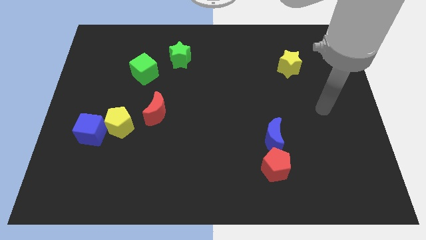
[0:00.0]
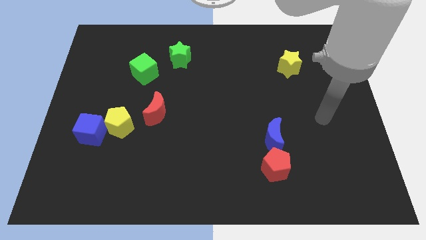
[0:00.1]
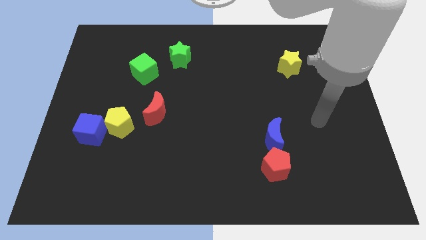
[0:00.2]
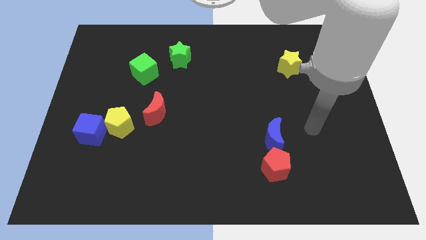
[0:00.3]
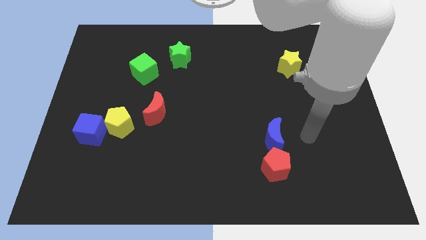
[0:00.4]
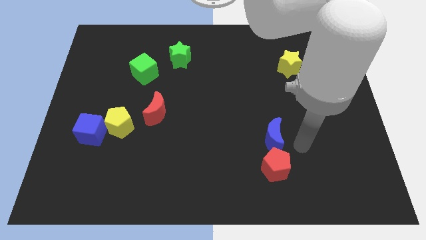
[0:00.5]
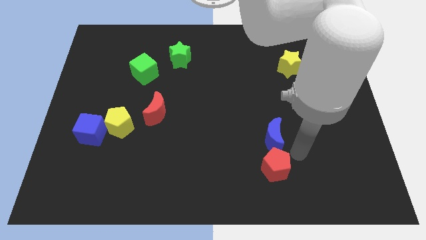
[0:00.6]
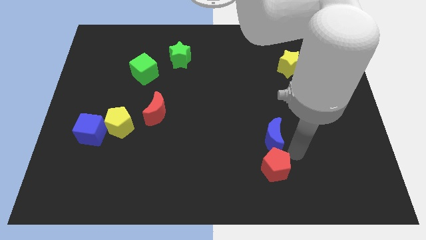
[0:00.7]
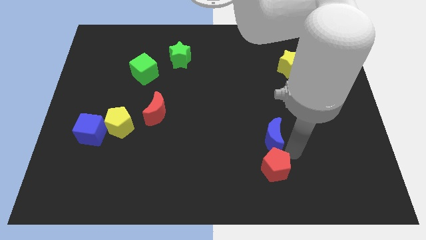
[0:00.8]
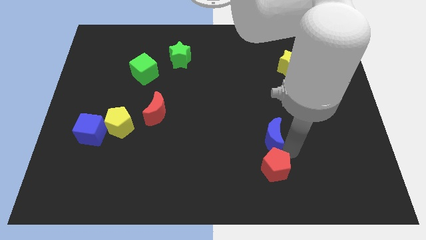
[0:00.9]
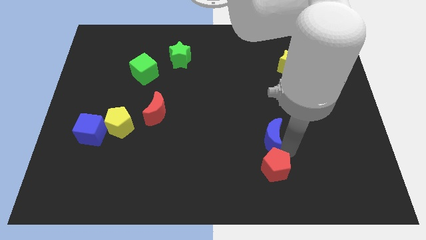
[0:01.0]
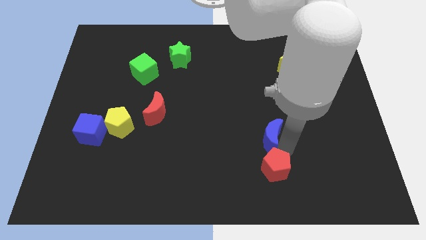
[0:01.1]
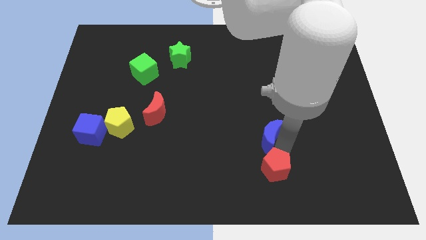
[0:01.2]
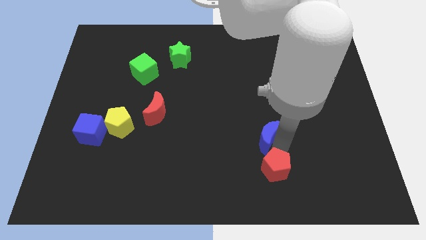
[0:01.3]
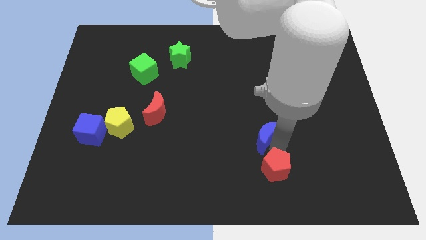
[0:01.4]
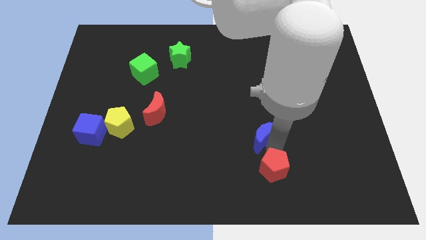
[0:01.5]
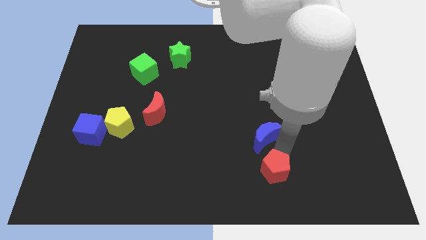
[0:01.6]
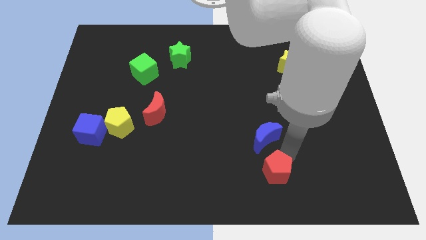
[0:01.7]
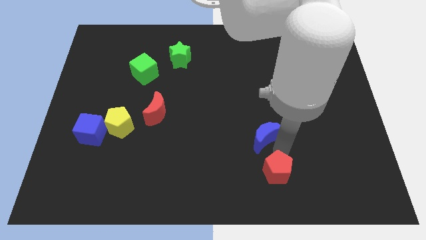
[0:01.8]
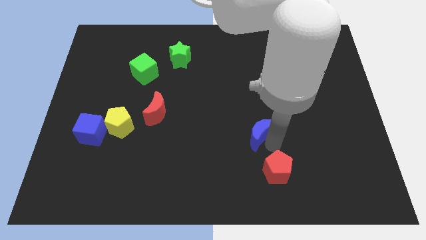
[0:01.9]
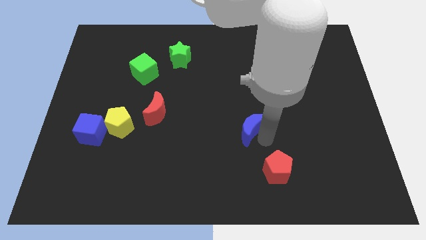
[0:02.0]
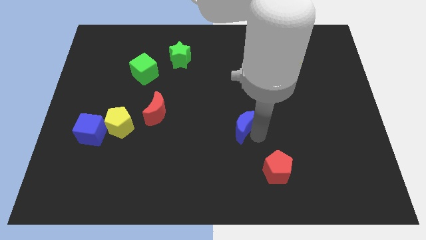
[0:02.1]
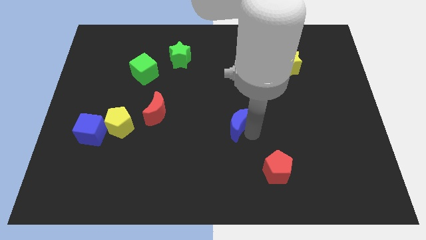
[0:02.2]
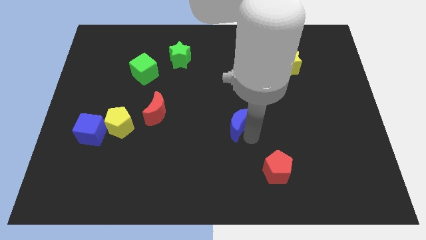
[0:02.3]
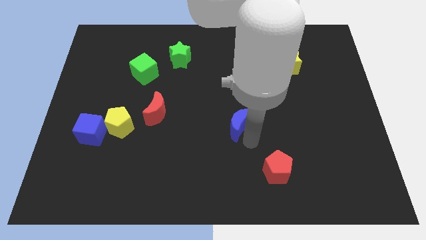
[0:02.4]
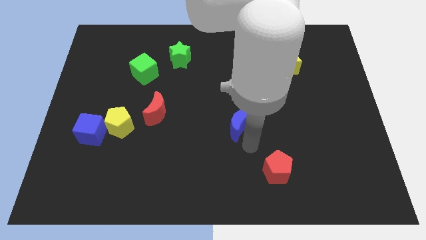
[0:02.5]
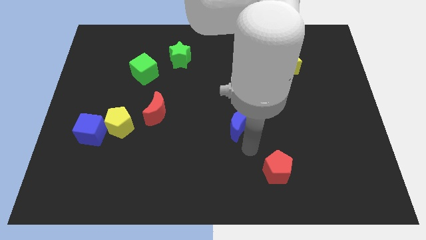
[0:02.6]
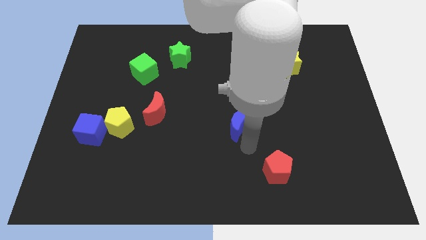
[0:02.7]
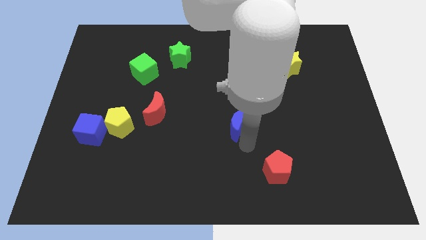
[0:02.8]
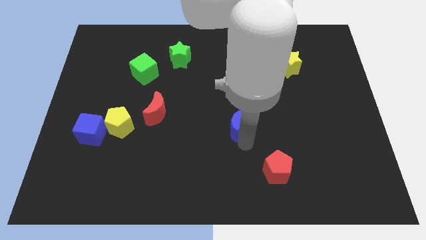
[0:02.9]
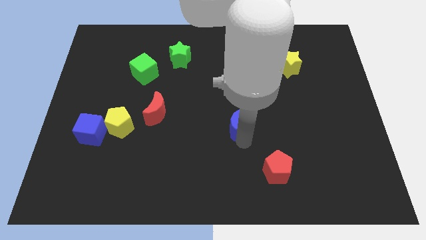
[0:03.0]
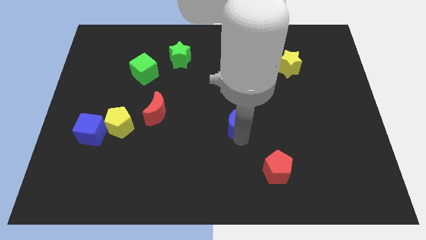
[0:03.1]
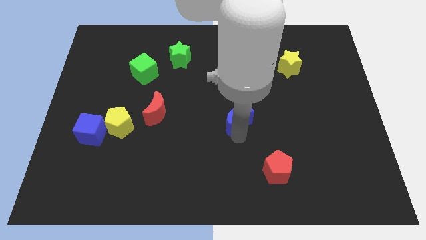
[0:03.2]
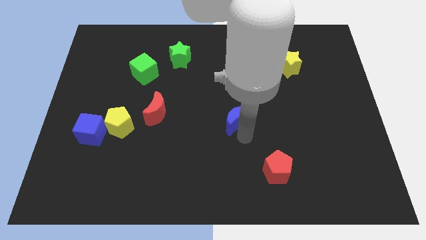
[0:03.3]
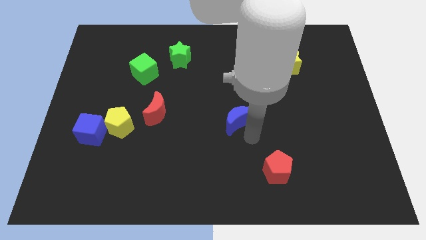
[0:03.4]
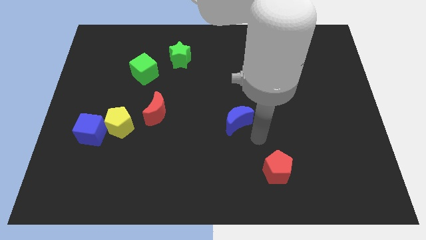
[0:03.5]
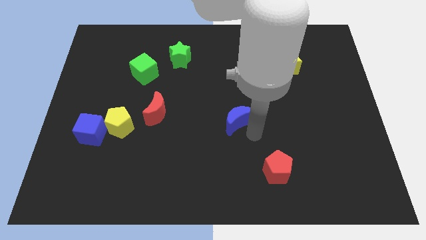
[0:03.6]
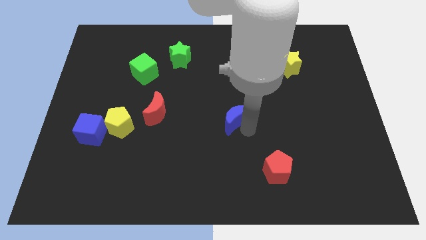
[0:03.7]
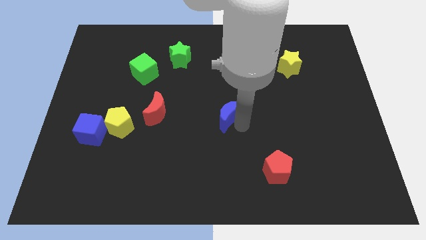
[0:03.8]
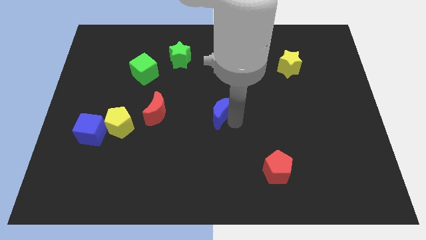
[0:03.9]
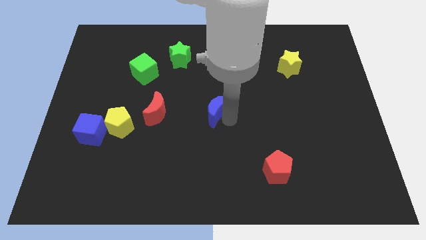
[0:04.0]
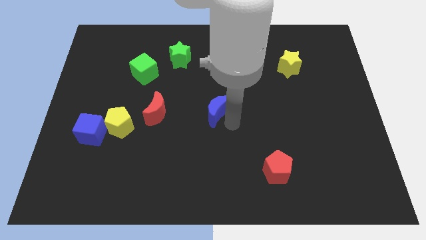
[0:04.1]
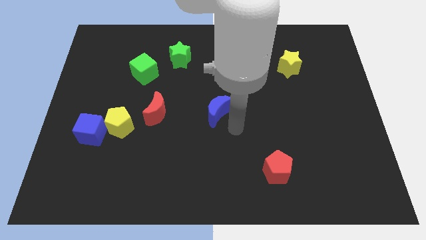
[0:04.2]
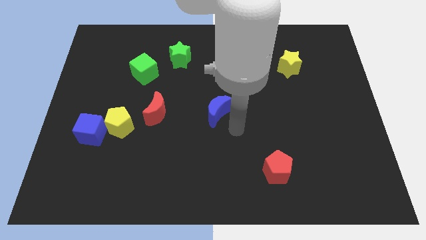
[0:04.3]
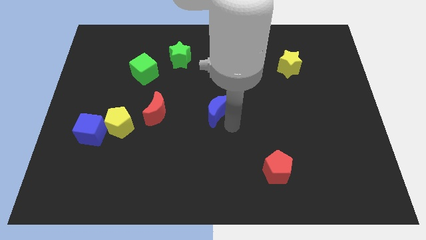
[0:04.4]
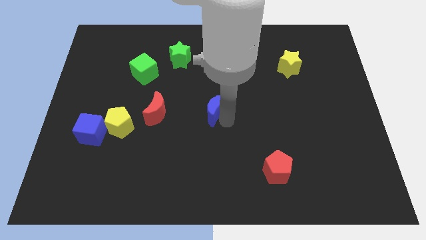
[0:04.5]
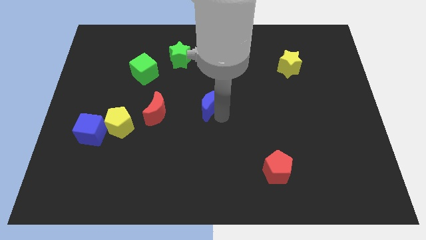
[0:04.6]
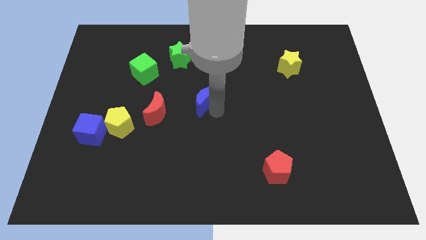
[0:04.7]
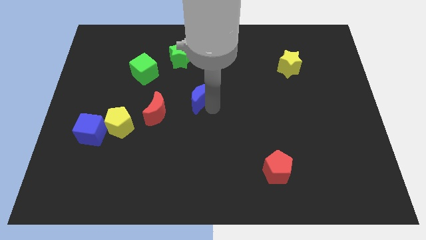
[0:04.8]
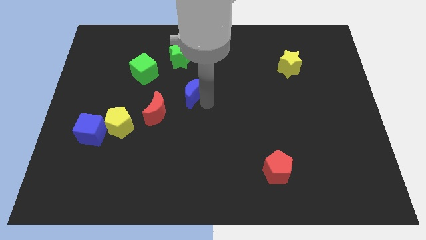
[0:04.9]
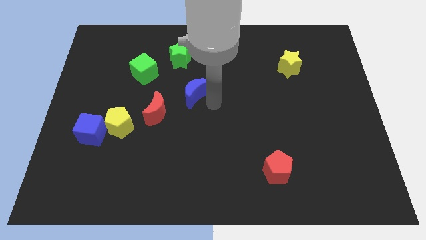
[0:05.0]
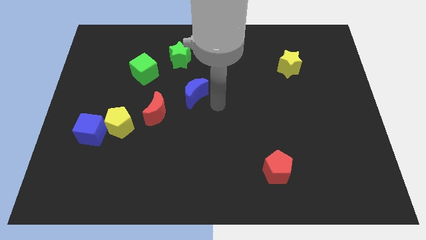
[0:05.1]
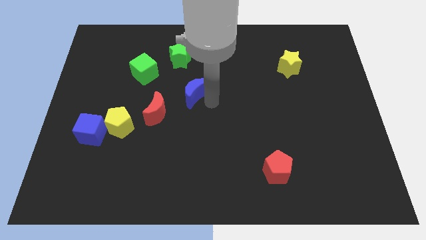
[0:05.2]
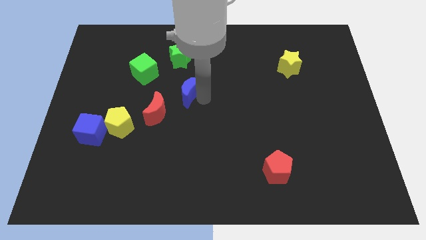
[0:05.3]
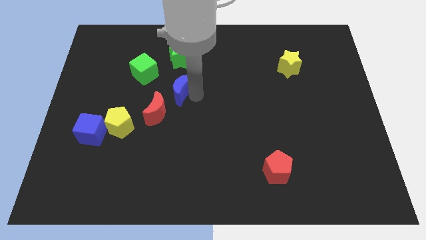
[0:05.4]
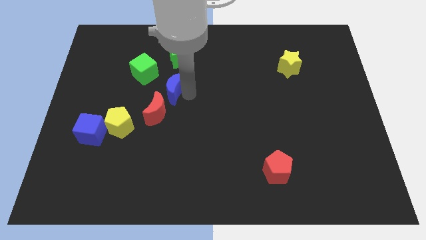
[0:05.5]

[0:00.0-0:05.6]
move the blue moon to the top side of the red moon

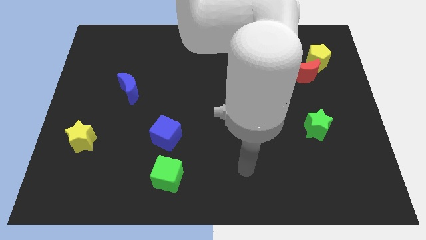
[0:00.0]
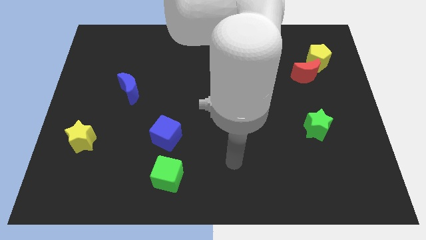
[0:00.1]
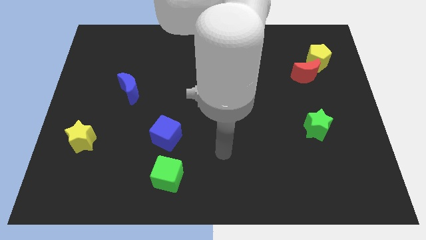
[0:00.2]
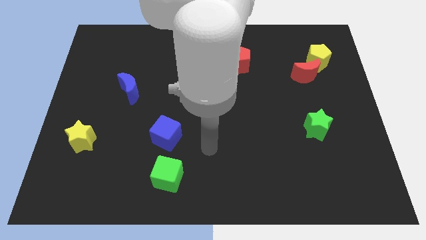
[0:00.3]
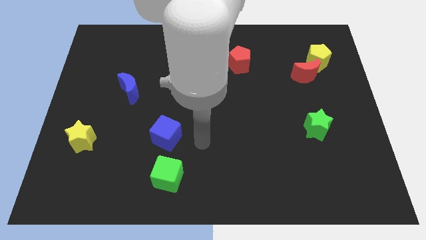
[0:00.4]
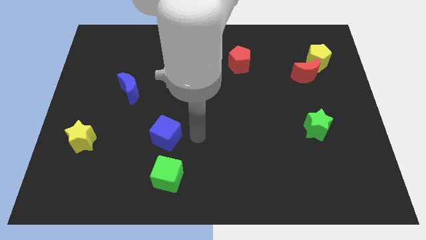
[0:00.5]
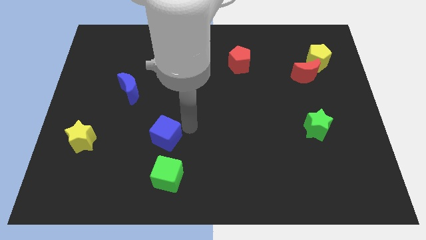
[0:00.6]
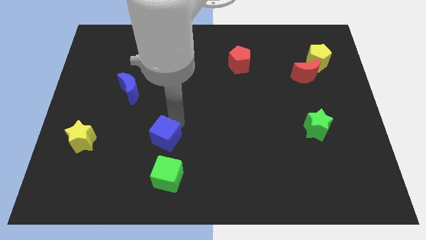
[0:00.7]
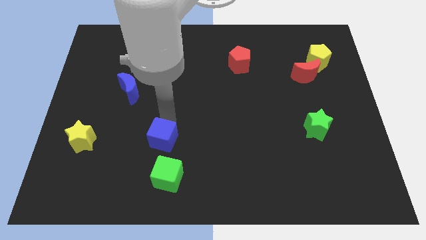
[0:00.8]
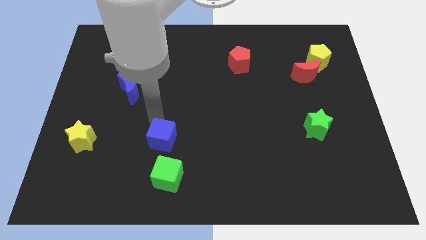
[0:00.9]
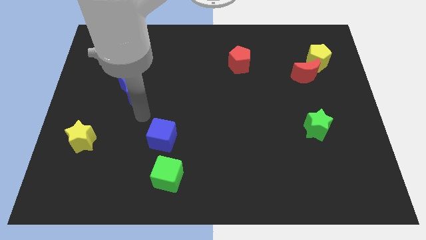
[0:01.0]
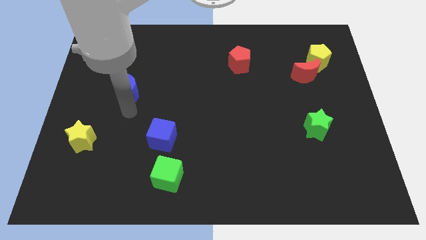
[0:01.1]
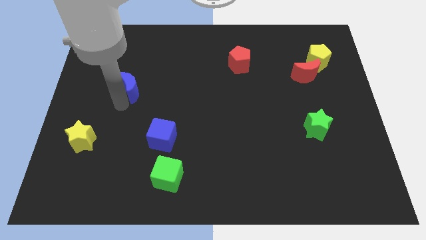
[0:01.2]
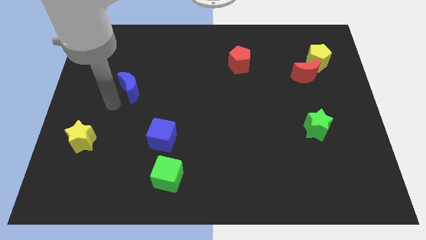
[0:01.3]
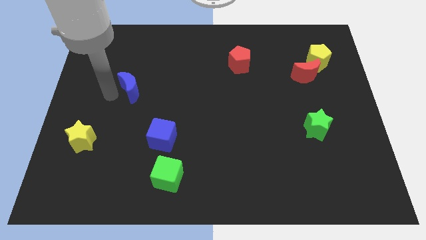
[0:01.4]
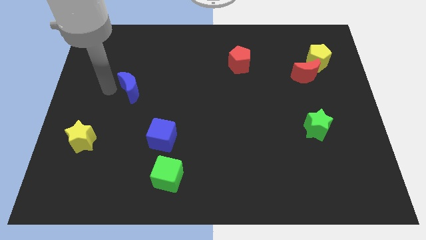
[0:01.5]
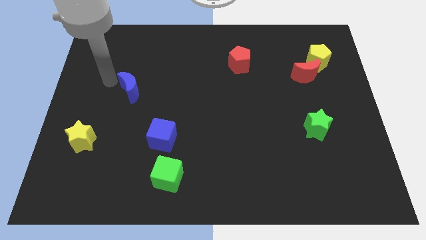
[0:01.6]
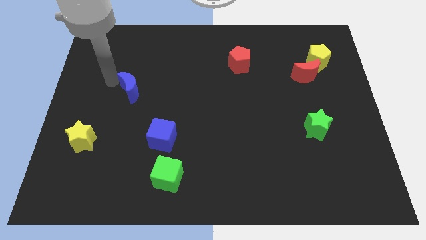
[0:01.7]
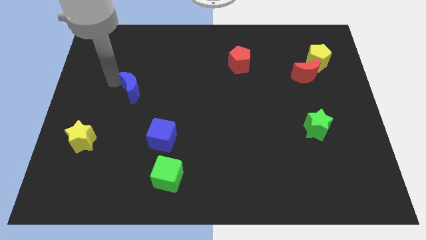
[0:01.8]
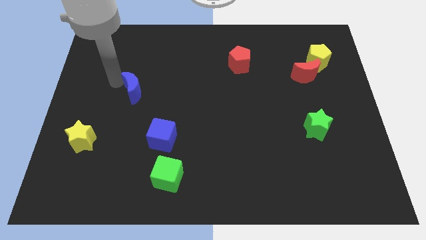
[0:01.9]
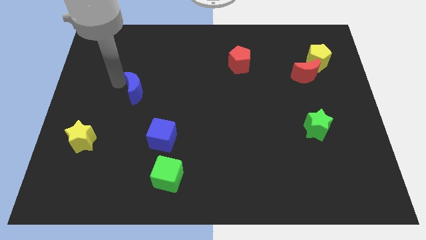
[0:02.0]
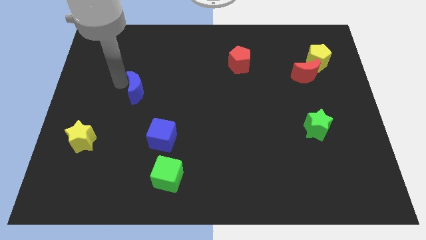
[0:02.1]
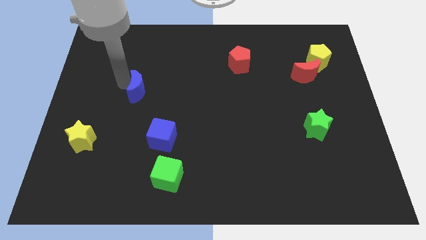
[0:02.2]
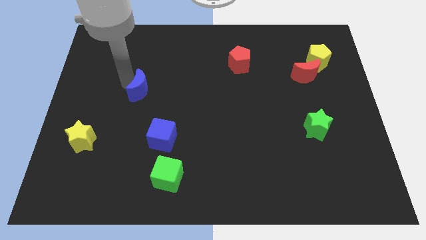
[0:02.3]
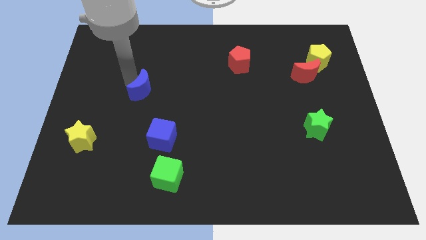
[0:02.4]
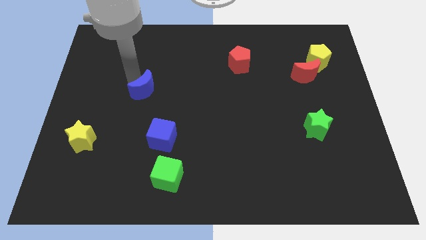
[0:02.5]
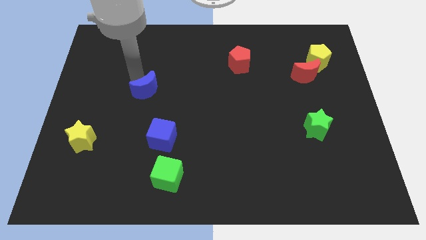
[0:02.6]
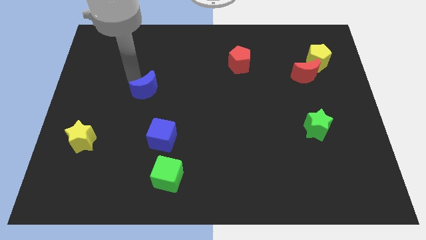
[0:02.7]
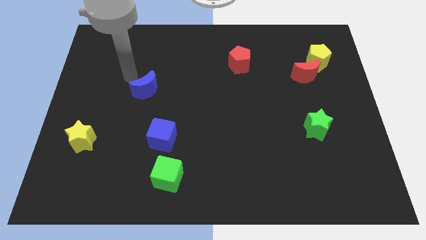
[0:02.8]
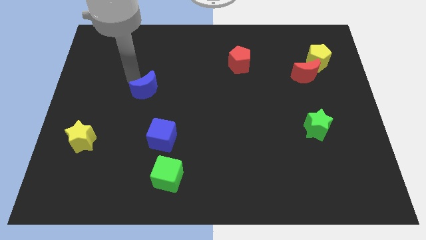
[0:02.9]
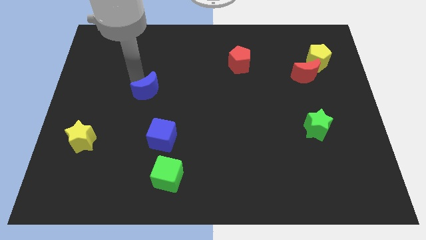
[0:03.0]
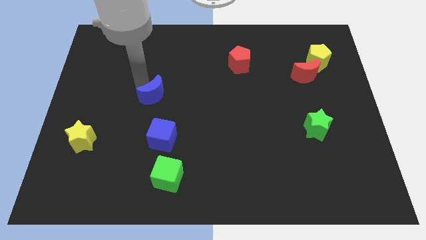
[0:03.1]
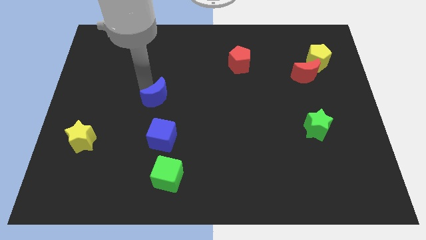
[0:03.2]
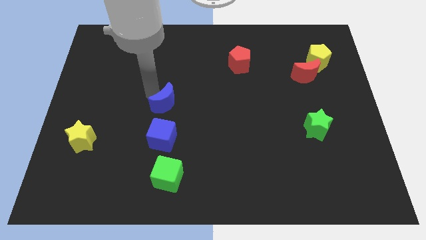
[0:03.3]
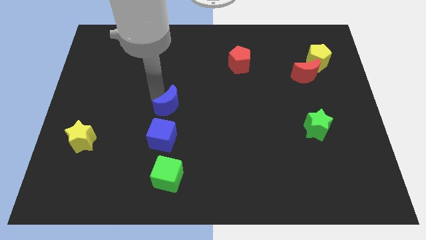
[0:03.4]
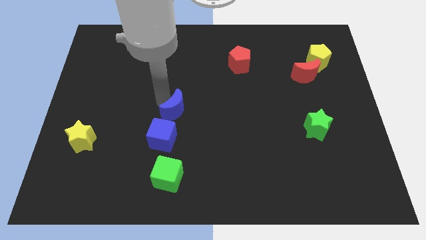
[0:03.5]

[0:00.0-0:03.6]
move the blue moon diagonally up and to the right of the blue cube
